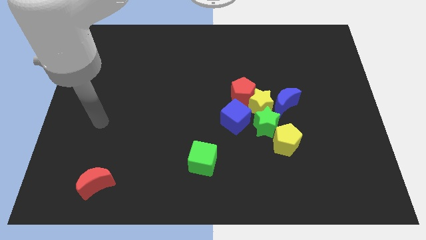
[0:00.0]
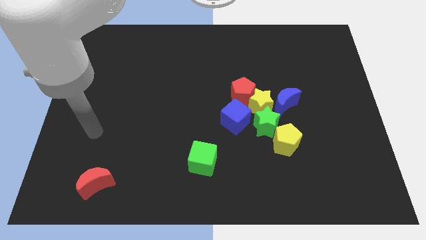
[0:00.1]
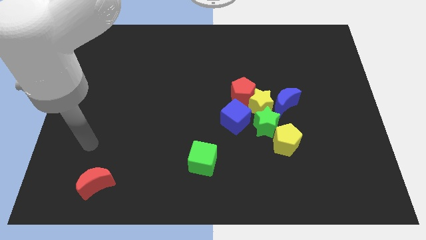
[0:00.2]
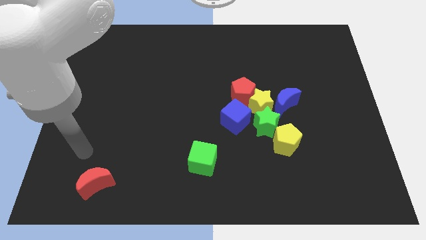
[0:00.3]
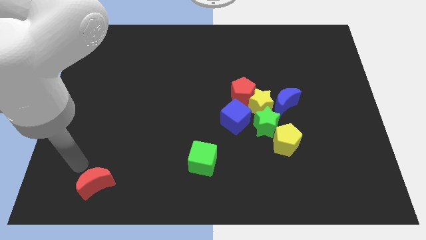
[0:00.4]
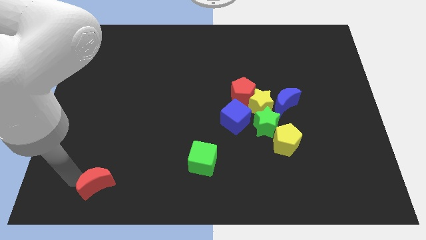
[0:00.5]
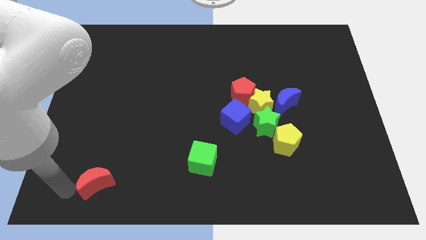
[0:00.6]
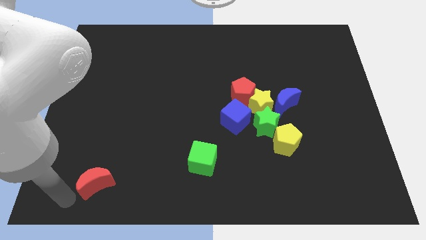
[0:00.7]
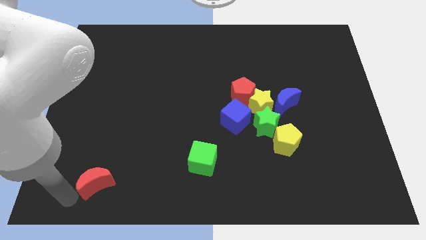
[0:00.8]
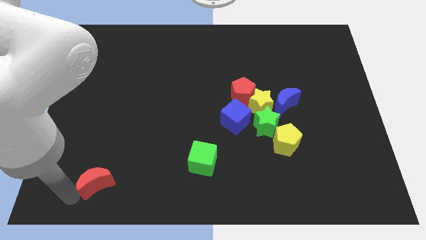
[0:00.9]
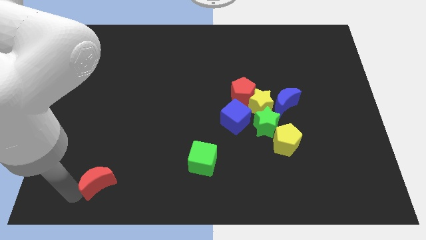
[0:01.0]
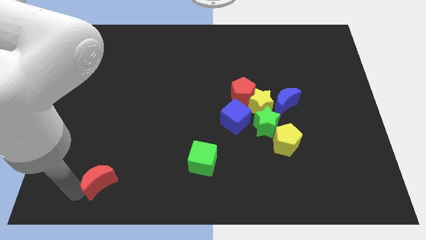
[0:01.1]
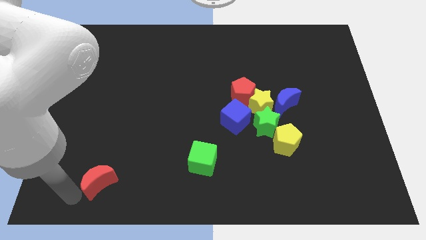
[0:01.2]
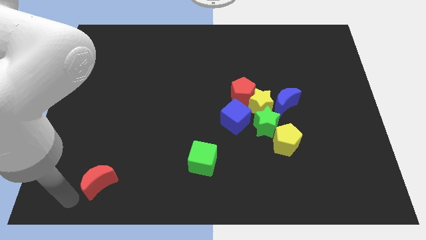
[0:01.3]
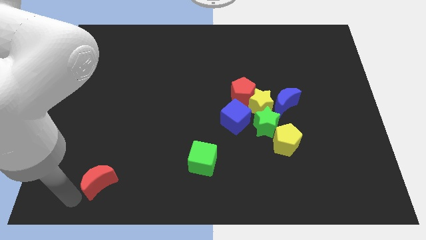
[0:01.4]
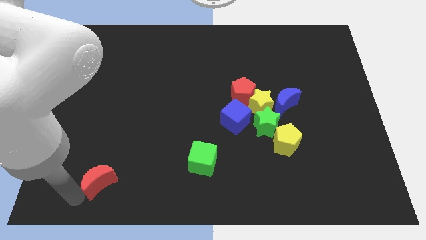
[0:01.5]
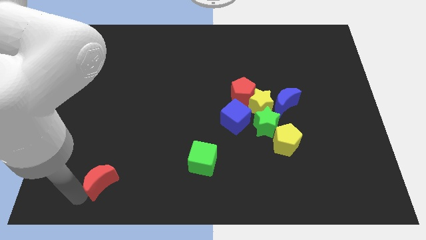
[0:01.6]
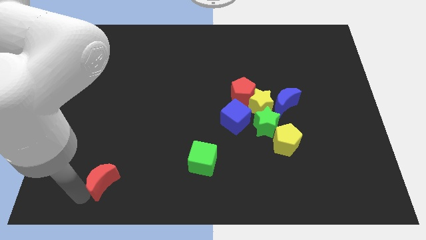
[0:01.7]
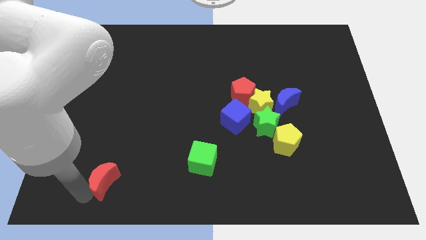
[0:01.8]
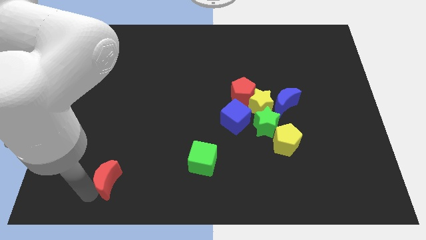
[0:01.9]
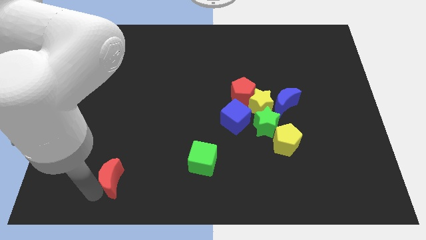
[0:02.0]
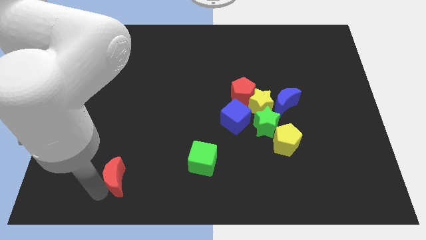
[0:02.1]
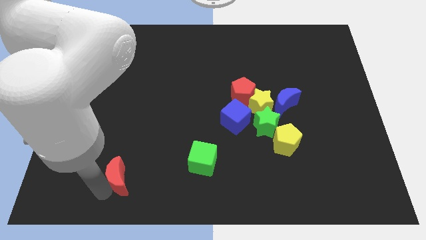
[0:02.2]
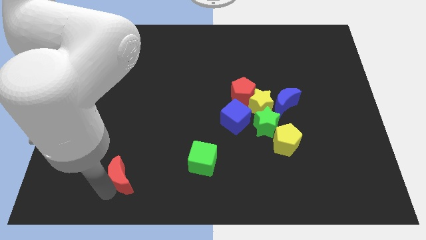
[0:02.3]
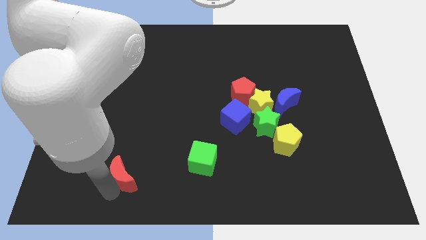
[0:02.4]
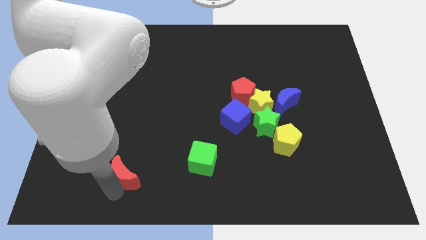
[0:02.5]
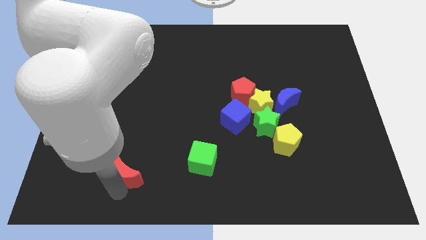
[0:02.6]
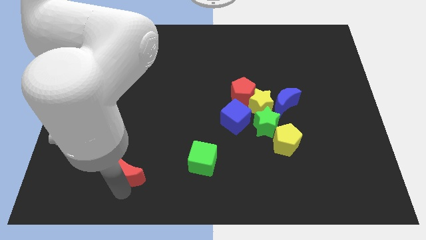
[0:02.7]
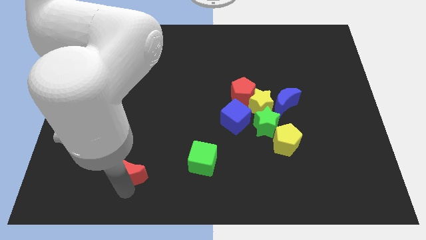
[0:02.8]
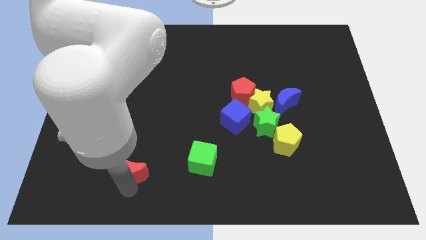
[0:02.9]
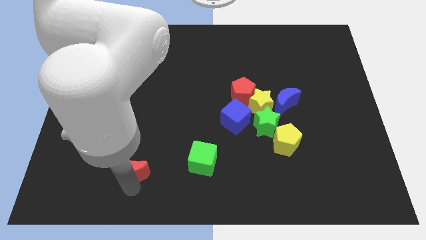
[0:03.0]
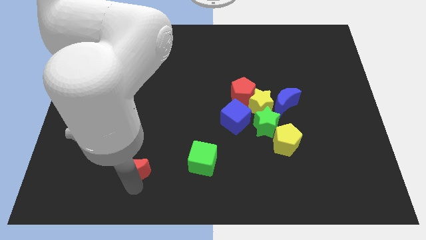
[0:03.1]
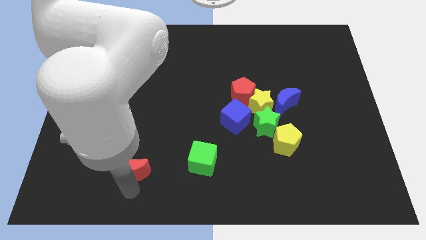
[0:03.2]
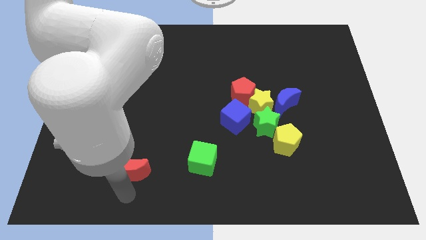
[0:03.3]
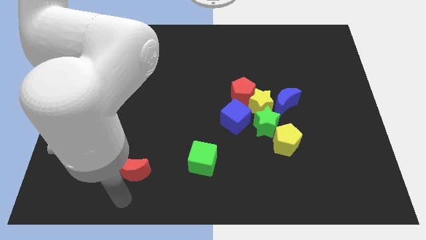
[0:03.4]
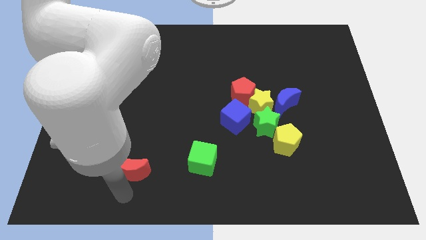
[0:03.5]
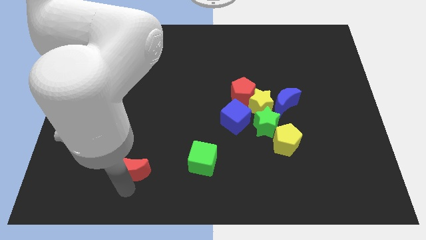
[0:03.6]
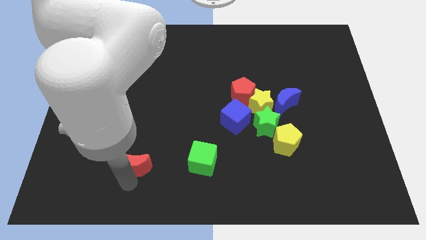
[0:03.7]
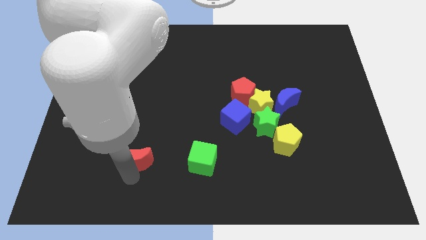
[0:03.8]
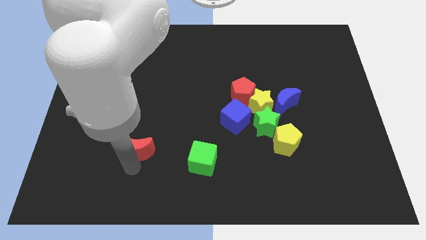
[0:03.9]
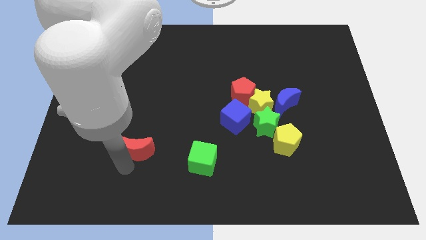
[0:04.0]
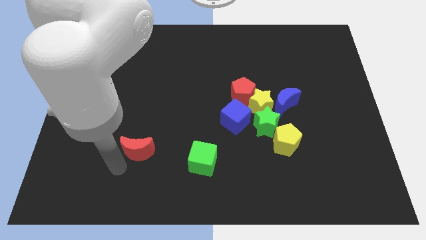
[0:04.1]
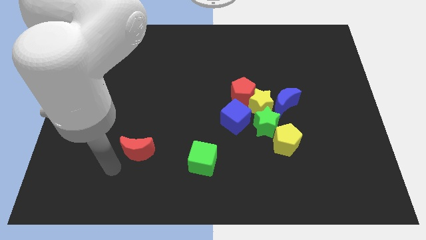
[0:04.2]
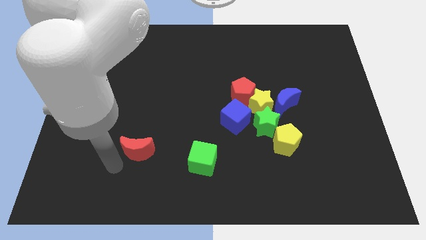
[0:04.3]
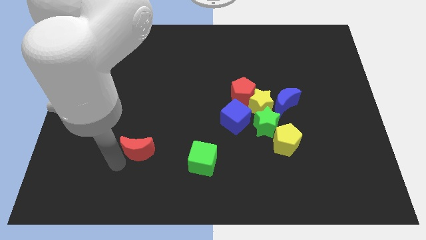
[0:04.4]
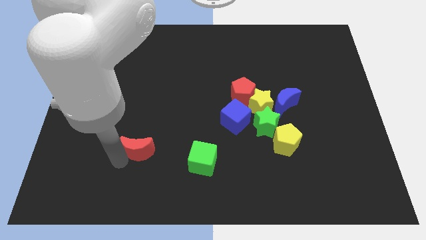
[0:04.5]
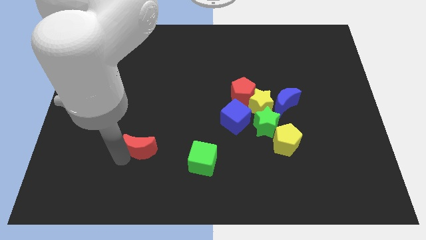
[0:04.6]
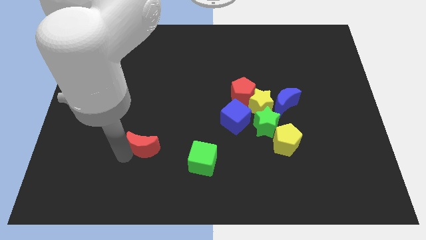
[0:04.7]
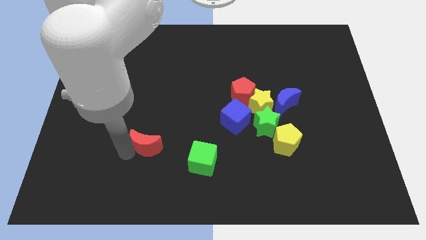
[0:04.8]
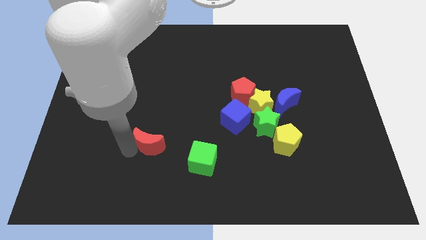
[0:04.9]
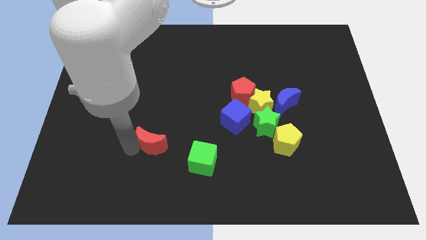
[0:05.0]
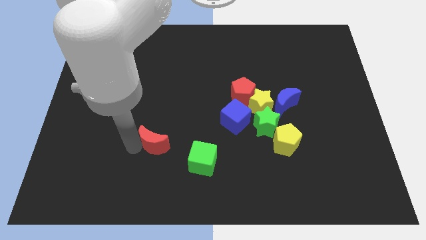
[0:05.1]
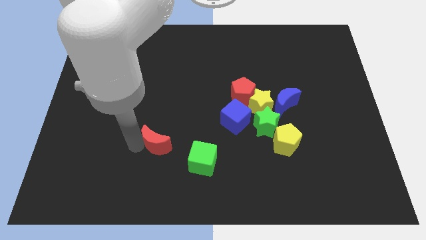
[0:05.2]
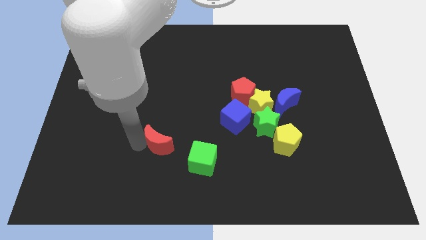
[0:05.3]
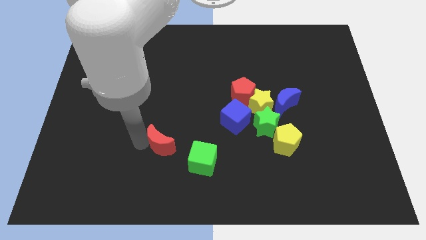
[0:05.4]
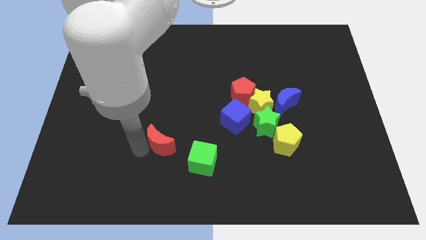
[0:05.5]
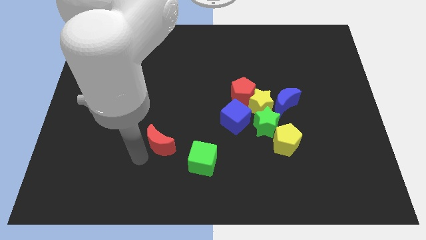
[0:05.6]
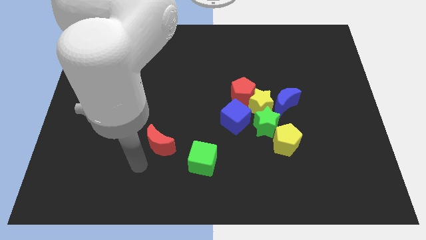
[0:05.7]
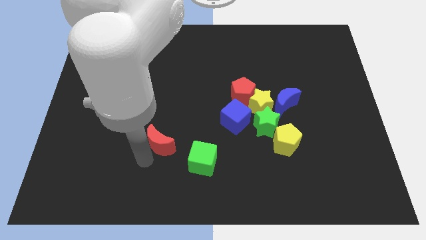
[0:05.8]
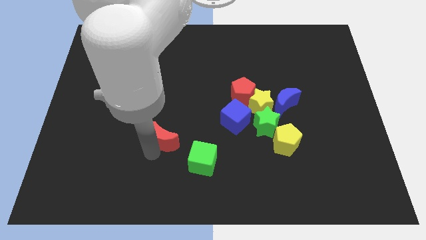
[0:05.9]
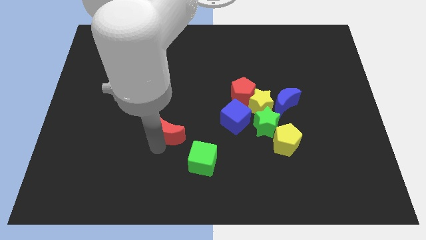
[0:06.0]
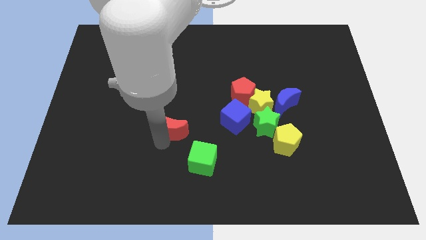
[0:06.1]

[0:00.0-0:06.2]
move the red moon to the center
